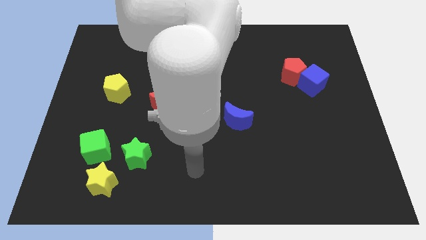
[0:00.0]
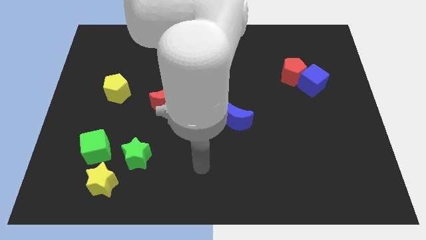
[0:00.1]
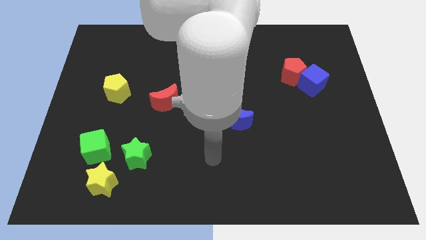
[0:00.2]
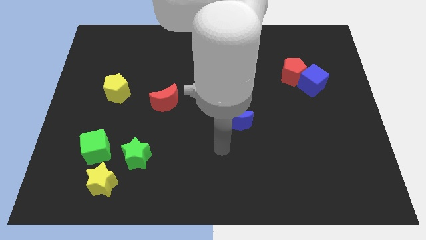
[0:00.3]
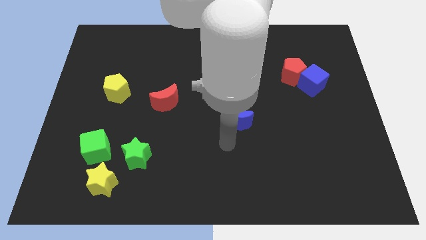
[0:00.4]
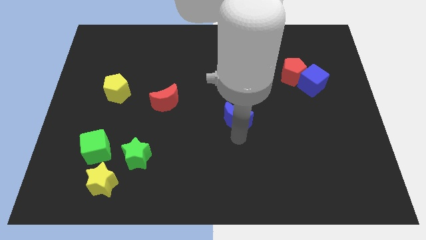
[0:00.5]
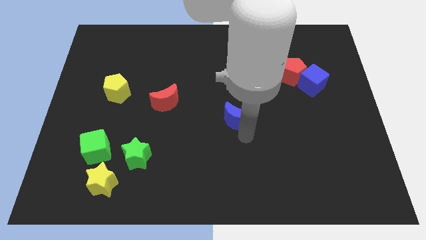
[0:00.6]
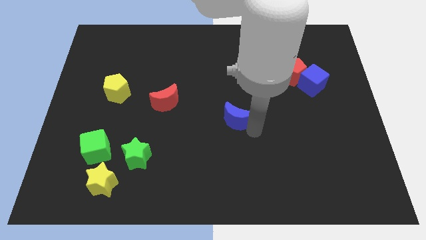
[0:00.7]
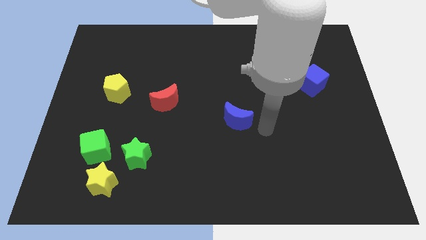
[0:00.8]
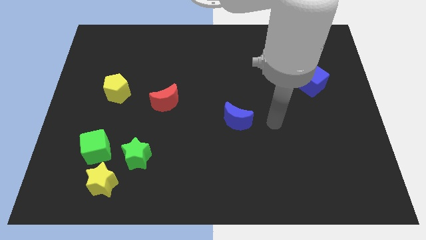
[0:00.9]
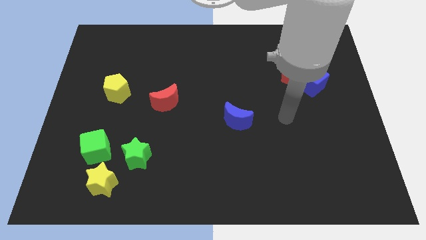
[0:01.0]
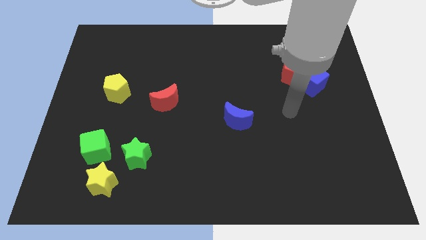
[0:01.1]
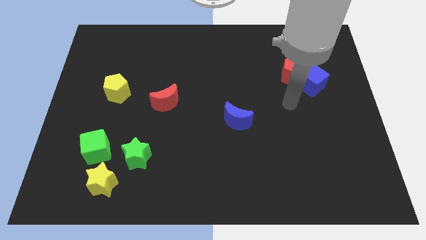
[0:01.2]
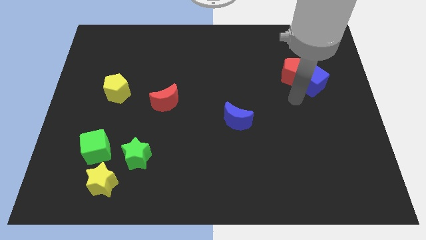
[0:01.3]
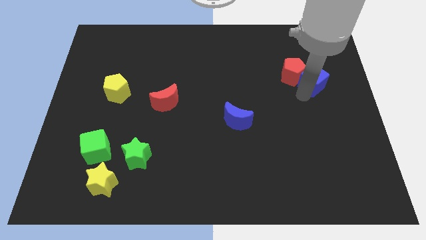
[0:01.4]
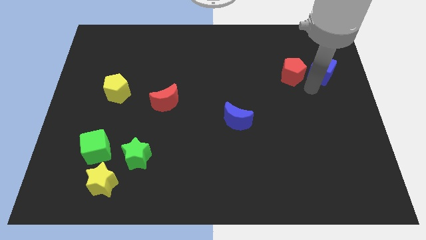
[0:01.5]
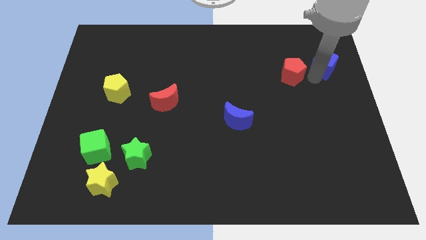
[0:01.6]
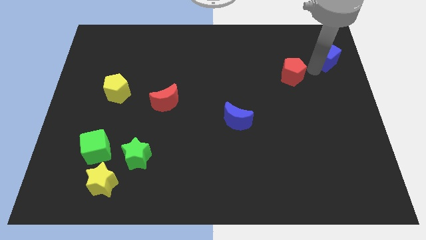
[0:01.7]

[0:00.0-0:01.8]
separate the red pentagon from the blue cube

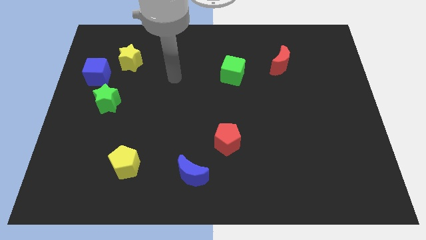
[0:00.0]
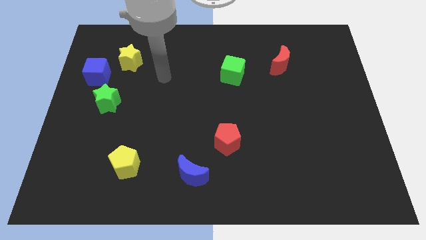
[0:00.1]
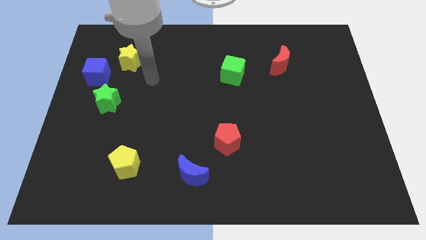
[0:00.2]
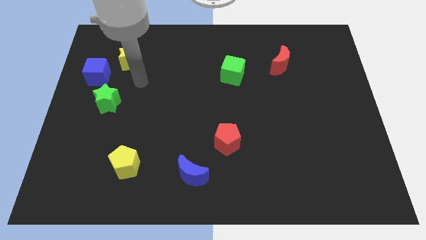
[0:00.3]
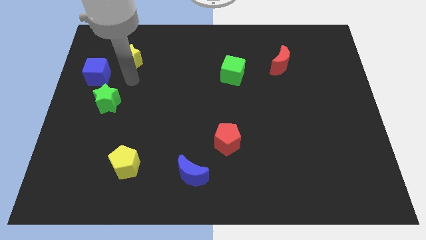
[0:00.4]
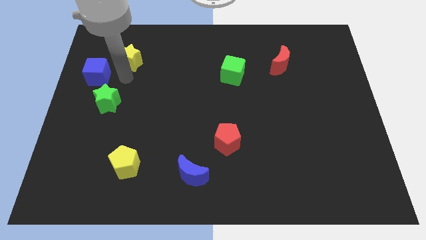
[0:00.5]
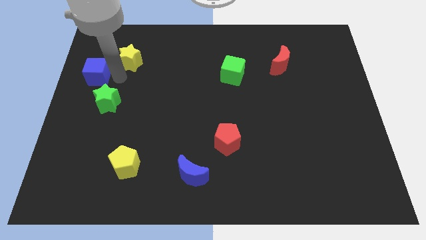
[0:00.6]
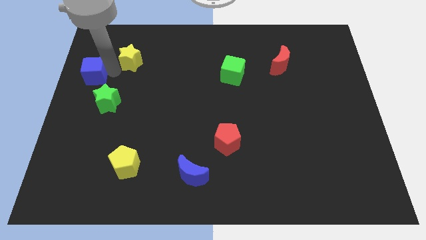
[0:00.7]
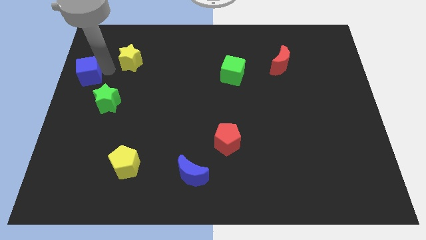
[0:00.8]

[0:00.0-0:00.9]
separate the yellow star from the blue cube

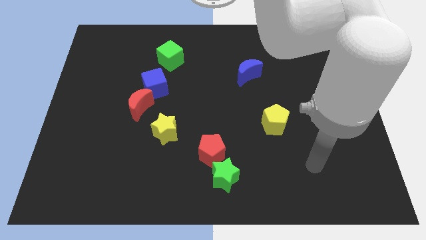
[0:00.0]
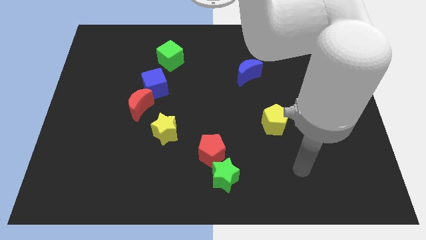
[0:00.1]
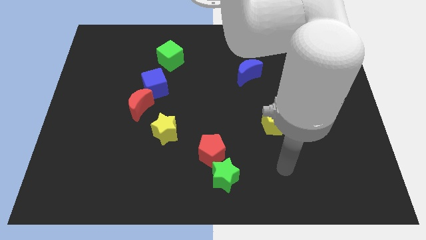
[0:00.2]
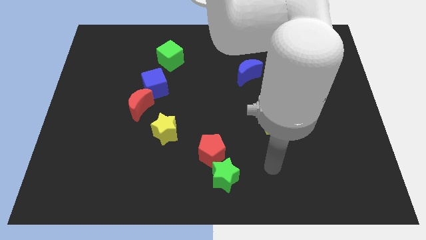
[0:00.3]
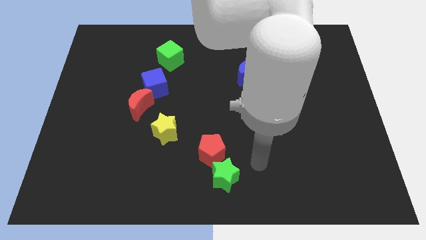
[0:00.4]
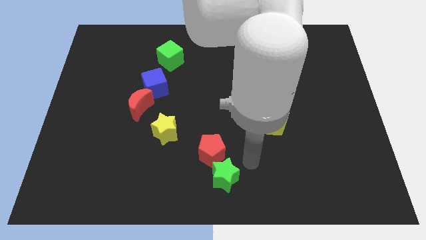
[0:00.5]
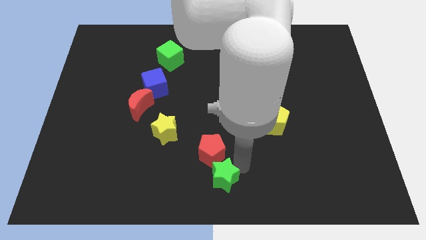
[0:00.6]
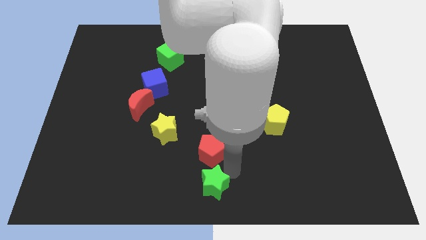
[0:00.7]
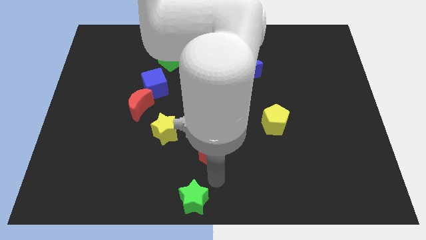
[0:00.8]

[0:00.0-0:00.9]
pull the red pentagon apart from the green star

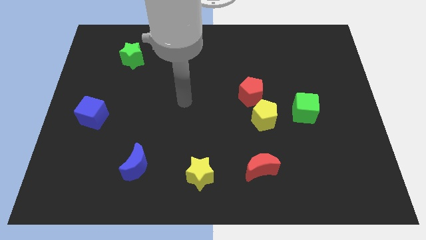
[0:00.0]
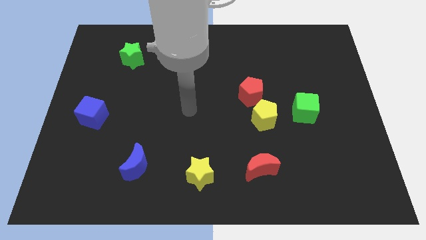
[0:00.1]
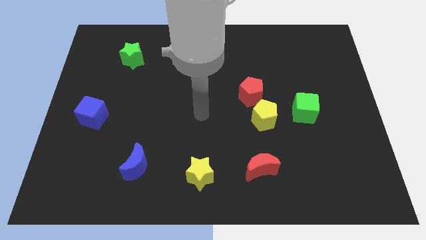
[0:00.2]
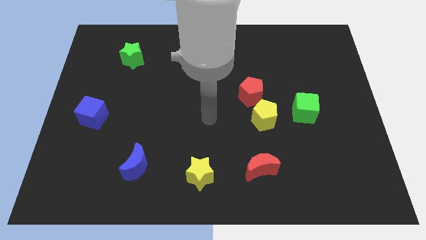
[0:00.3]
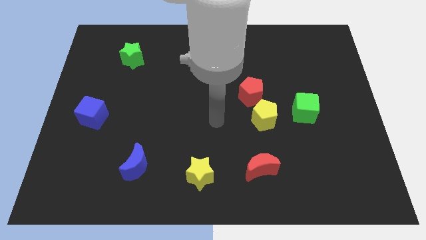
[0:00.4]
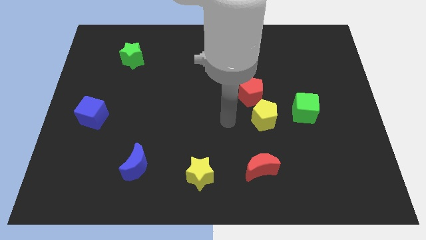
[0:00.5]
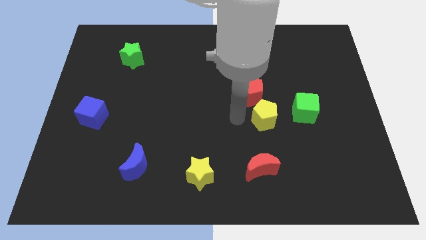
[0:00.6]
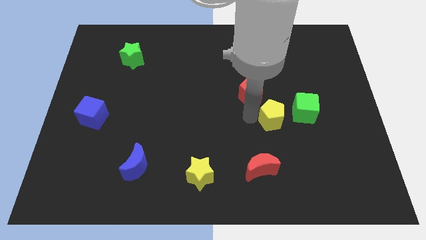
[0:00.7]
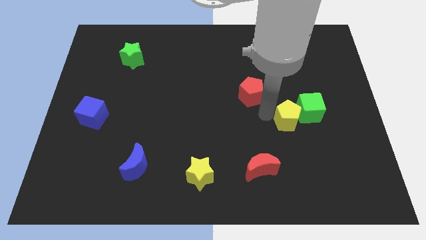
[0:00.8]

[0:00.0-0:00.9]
pull the red pentagon apart from the yellow pentagon

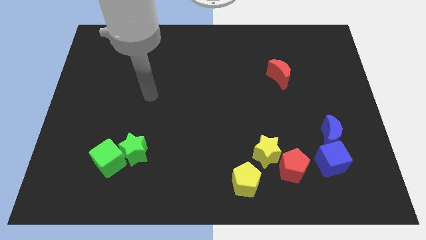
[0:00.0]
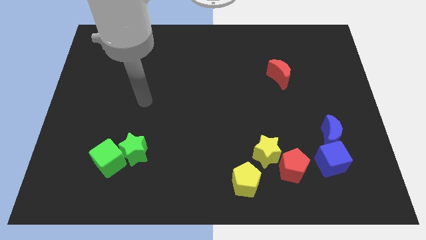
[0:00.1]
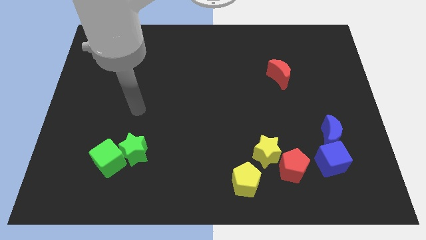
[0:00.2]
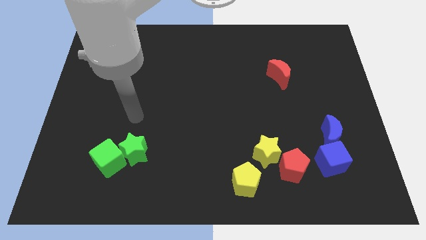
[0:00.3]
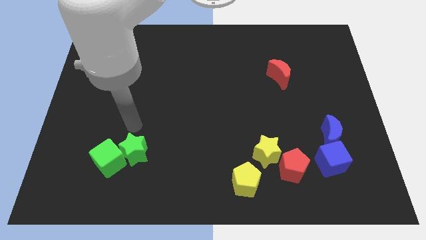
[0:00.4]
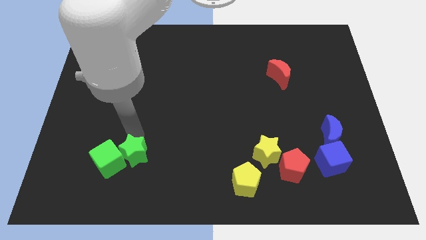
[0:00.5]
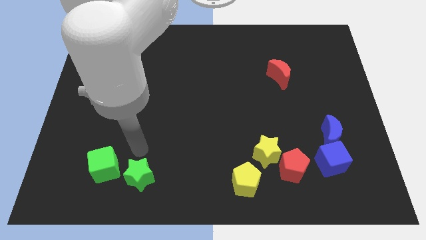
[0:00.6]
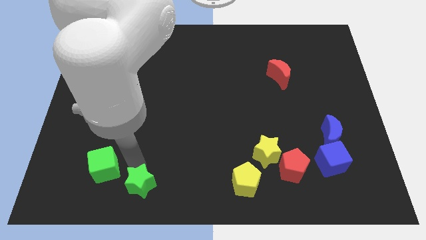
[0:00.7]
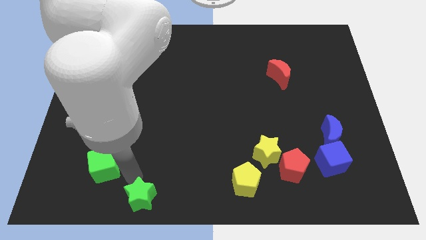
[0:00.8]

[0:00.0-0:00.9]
move the green cube away from the green star

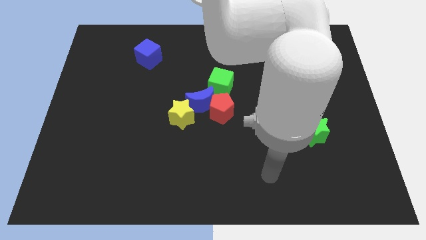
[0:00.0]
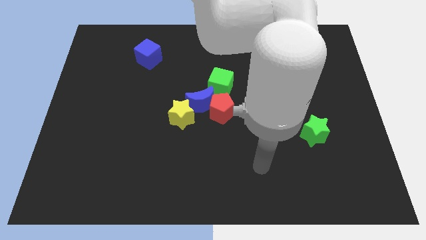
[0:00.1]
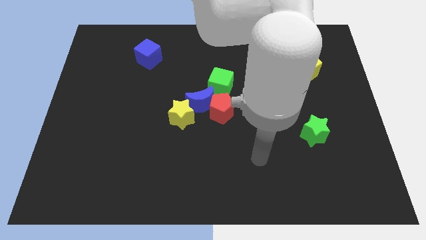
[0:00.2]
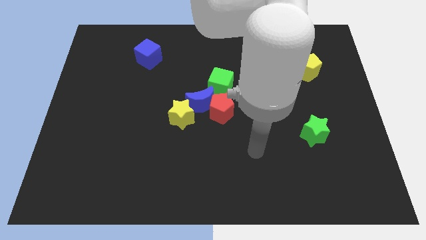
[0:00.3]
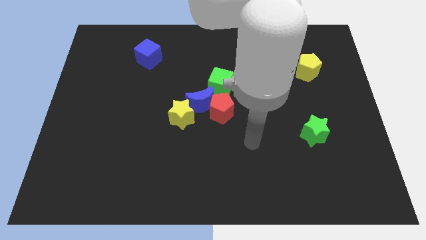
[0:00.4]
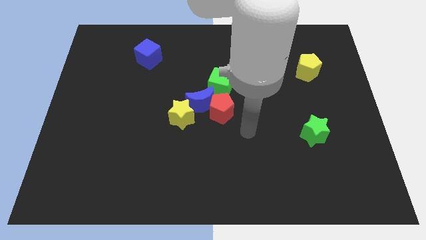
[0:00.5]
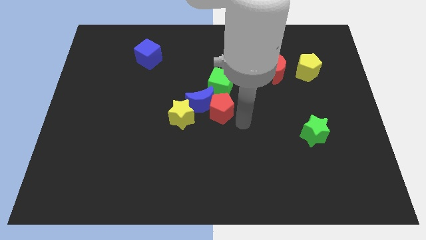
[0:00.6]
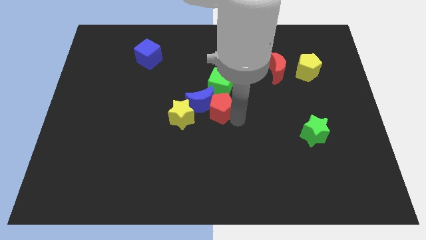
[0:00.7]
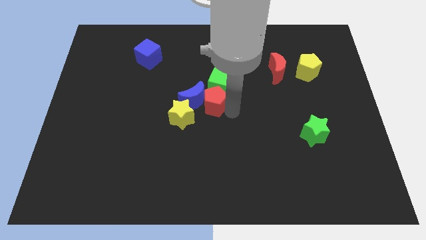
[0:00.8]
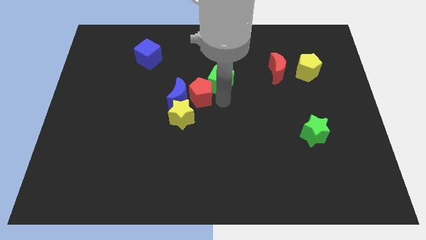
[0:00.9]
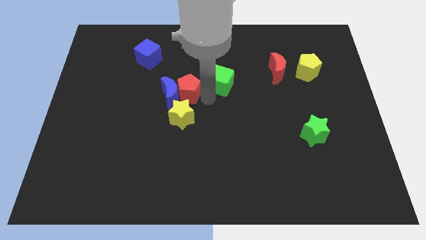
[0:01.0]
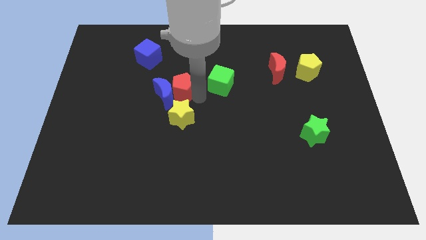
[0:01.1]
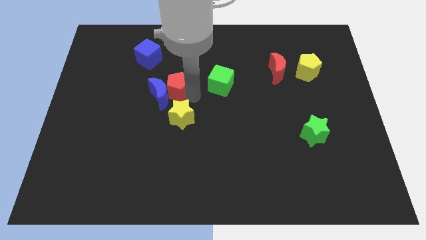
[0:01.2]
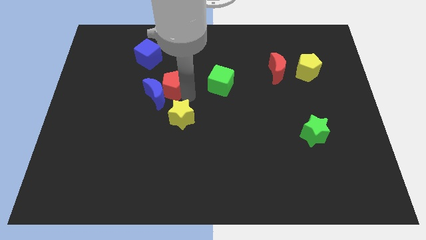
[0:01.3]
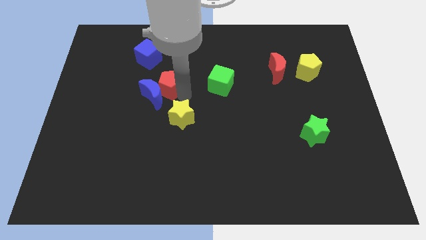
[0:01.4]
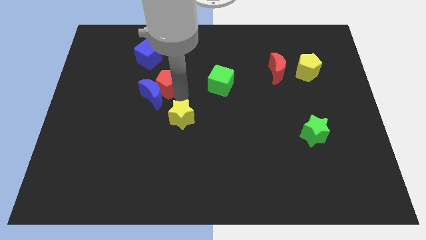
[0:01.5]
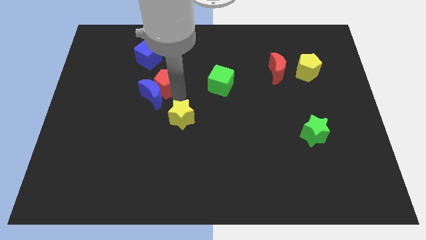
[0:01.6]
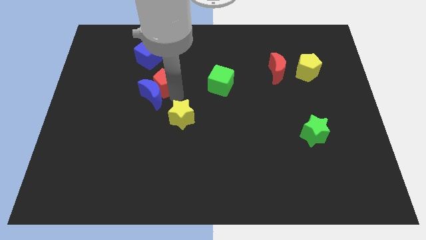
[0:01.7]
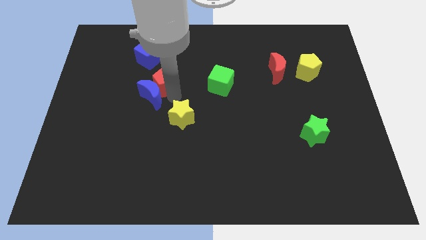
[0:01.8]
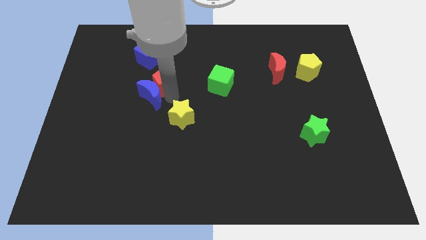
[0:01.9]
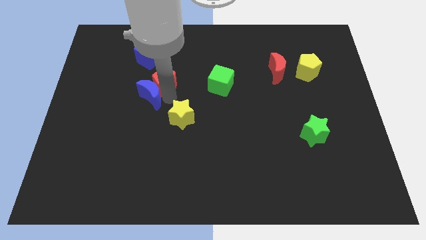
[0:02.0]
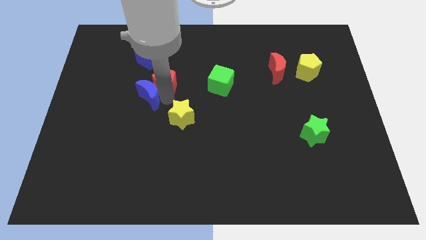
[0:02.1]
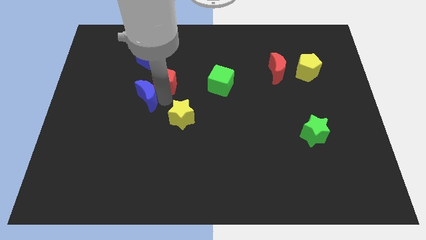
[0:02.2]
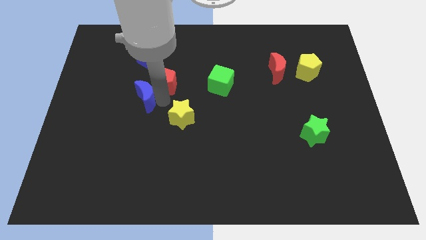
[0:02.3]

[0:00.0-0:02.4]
pull the blue moon apart from the red pentagon, yellow star, and green cube

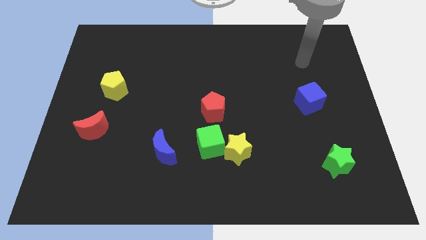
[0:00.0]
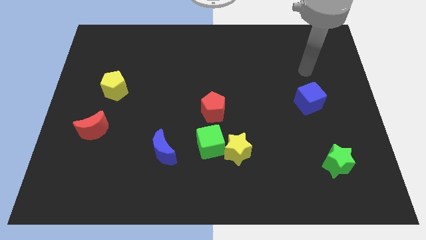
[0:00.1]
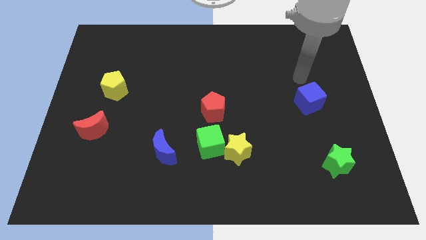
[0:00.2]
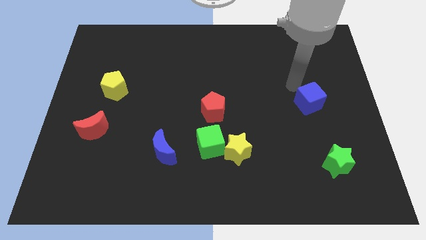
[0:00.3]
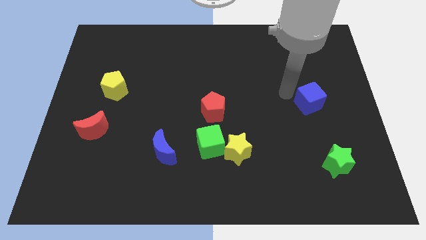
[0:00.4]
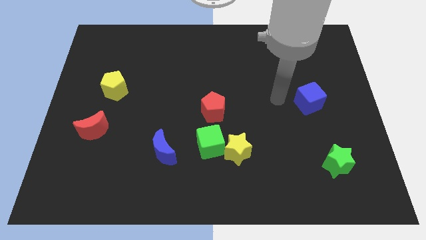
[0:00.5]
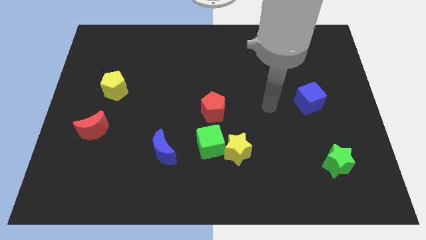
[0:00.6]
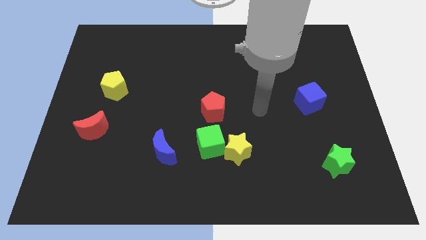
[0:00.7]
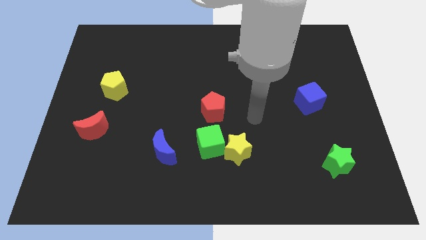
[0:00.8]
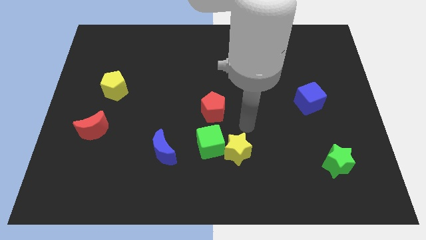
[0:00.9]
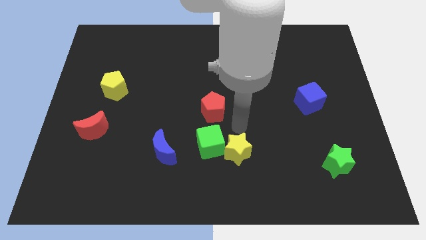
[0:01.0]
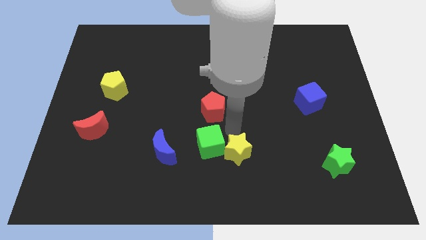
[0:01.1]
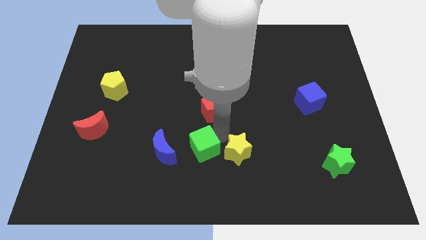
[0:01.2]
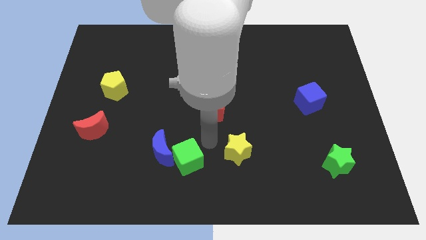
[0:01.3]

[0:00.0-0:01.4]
pull the yellow star apart from the green cube

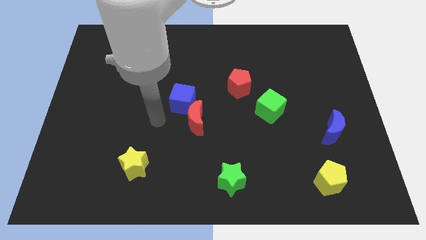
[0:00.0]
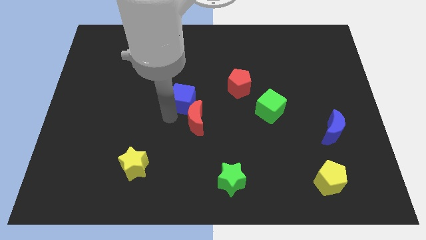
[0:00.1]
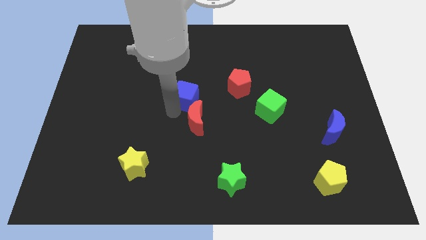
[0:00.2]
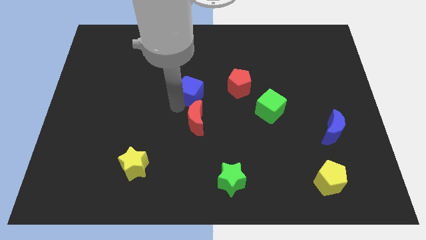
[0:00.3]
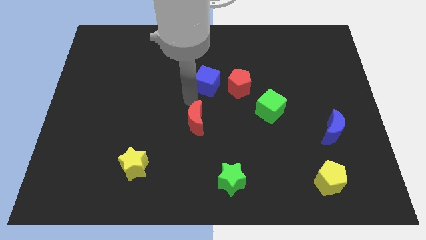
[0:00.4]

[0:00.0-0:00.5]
pull the red moon apart from the blue cube
